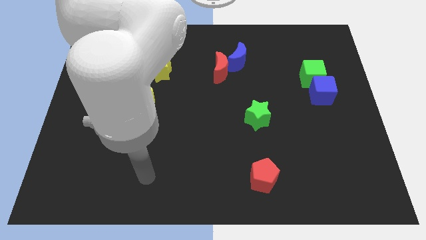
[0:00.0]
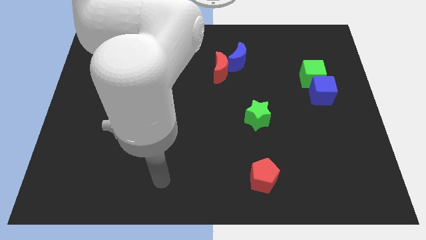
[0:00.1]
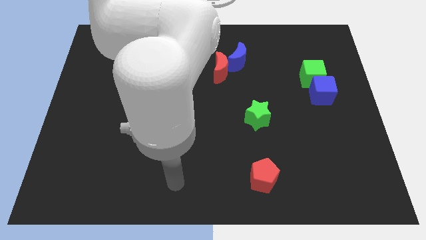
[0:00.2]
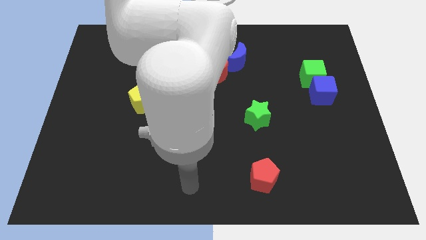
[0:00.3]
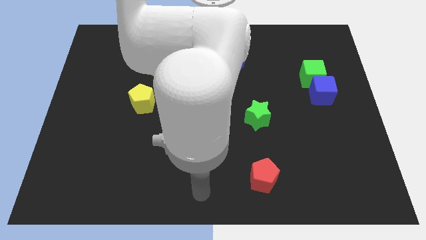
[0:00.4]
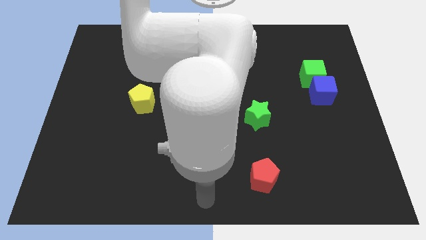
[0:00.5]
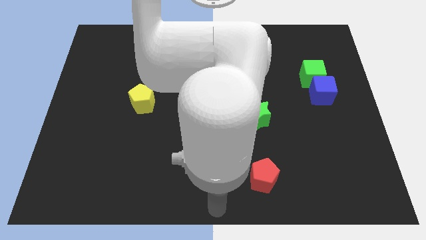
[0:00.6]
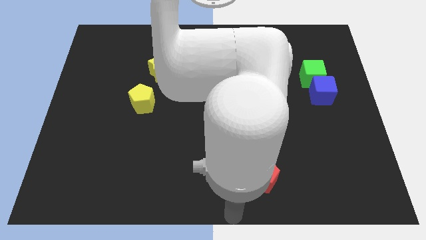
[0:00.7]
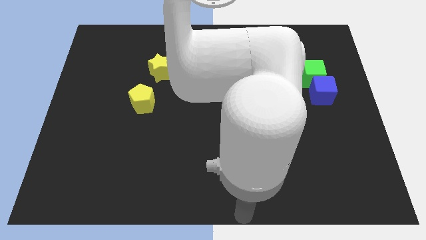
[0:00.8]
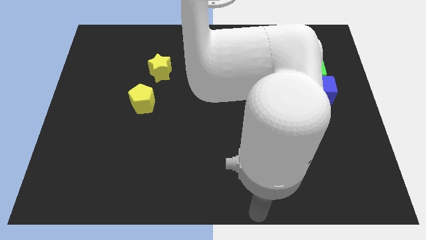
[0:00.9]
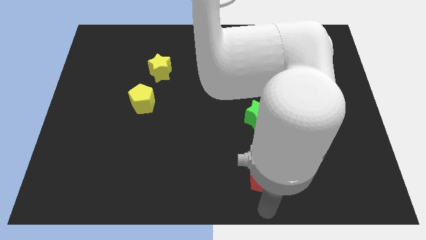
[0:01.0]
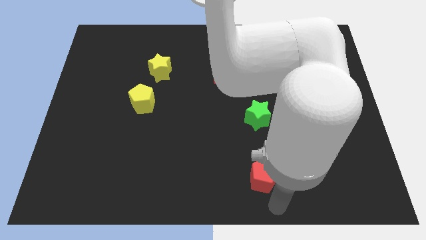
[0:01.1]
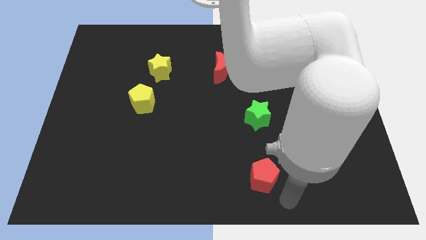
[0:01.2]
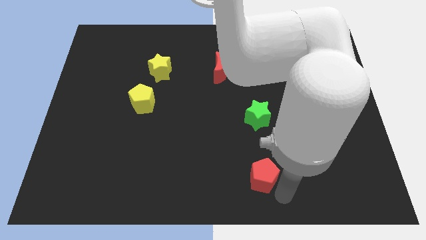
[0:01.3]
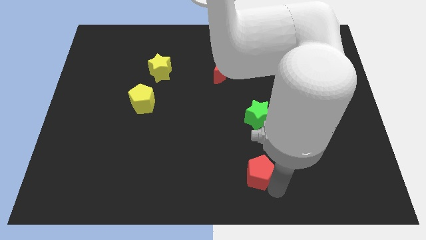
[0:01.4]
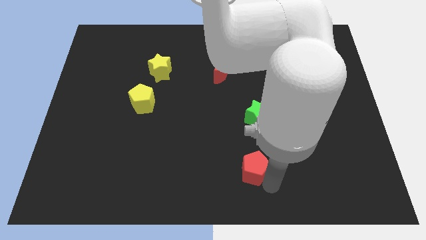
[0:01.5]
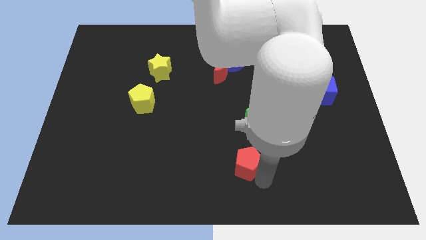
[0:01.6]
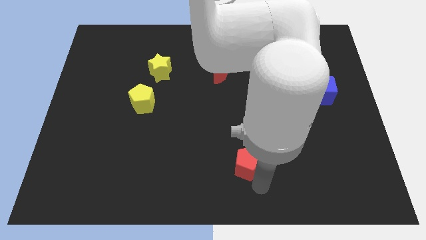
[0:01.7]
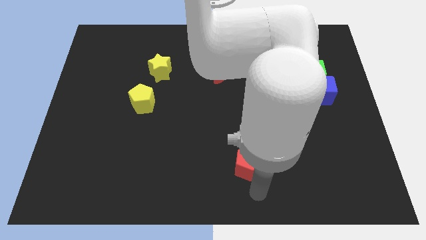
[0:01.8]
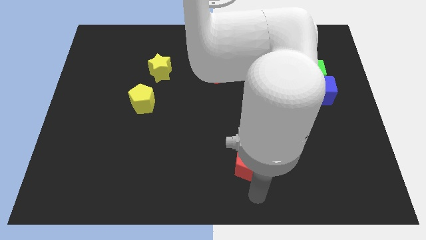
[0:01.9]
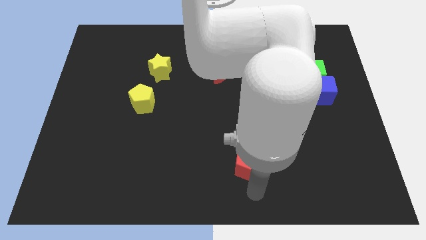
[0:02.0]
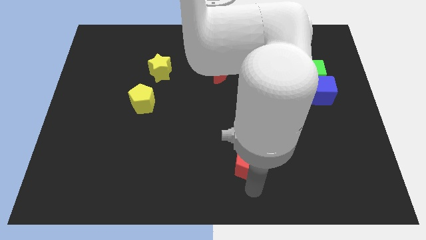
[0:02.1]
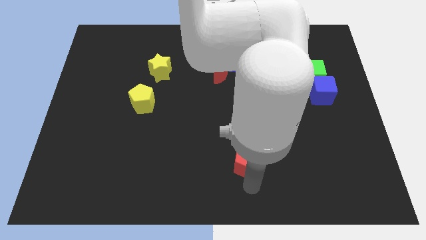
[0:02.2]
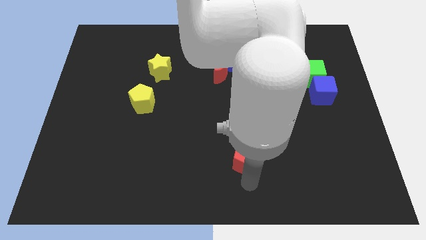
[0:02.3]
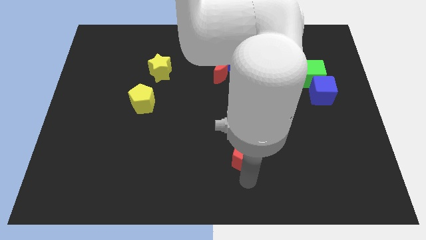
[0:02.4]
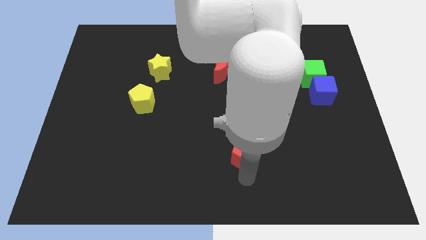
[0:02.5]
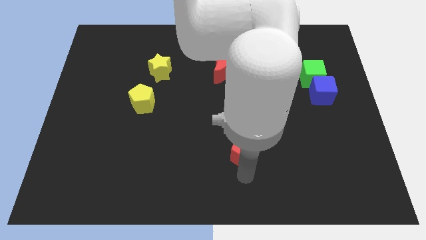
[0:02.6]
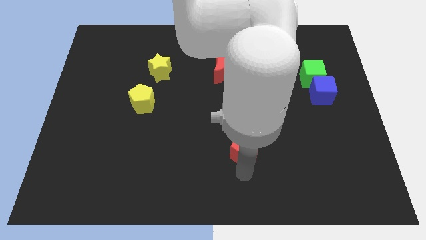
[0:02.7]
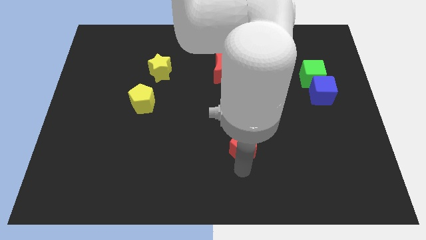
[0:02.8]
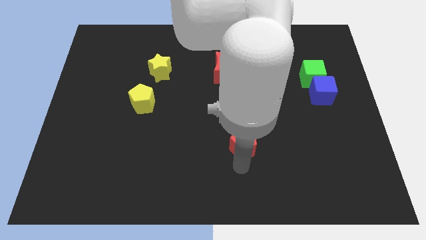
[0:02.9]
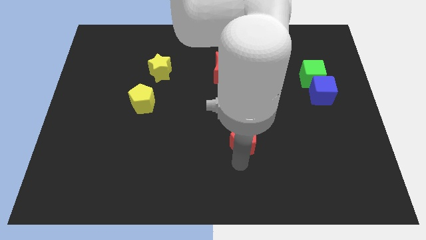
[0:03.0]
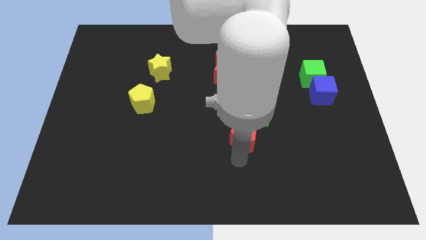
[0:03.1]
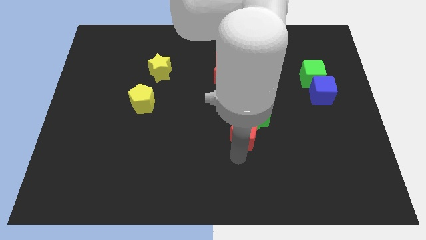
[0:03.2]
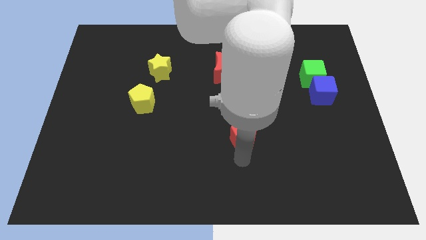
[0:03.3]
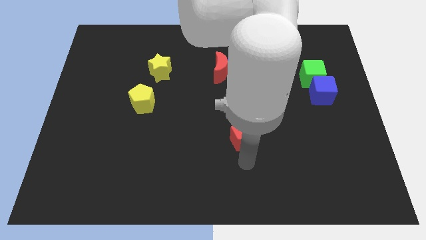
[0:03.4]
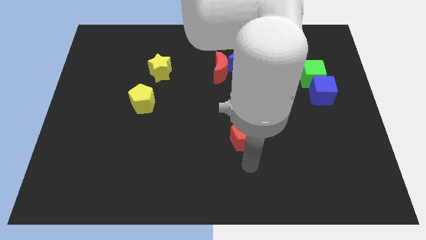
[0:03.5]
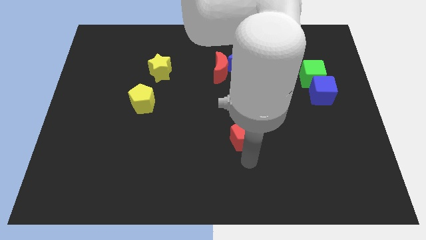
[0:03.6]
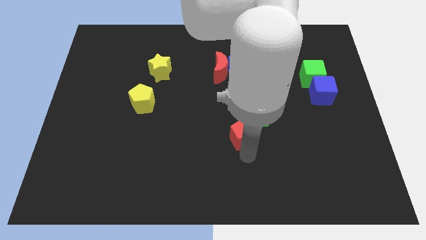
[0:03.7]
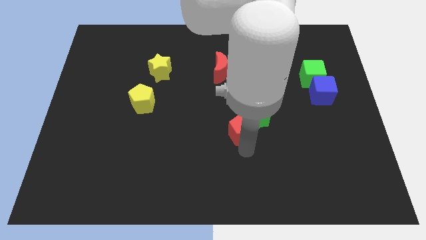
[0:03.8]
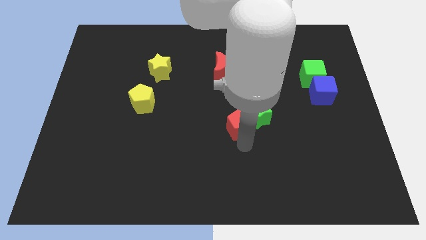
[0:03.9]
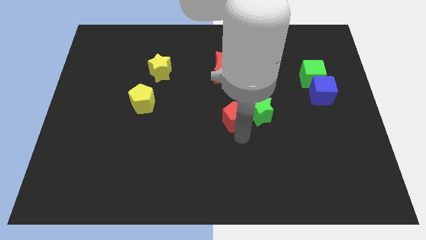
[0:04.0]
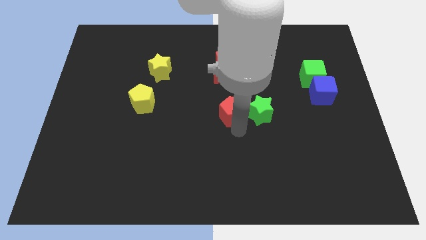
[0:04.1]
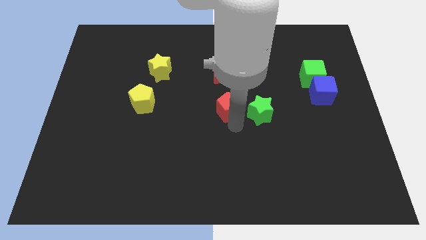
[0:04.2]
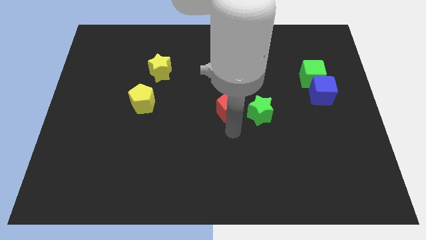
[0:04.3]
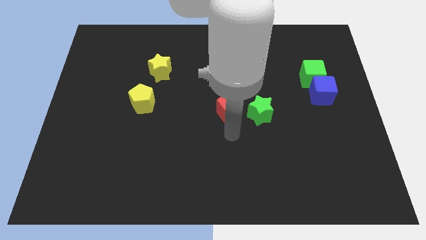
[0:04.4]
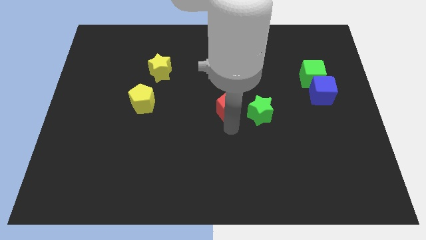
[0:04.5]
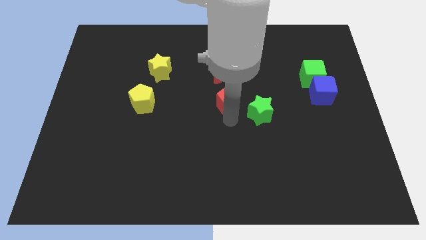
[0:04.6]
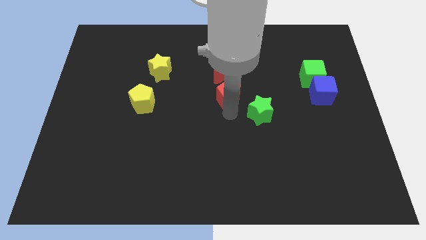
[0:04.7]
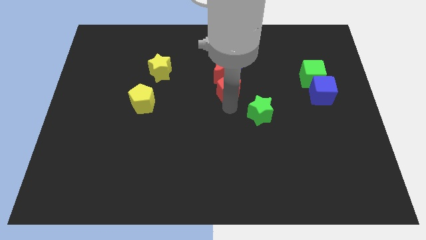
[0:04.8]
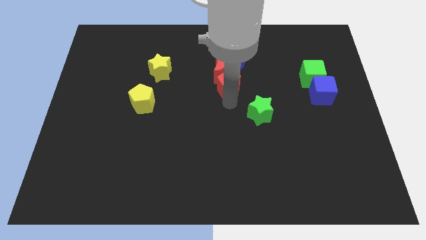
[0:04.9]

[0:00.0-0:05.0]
push the red pentagon towards the red moon

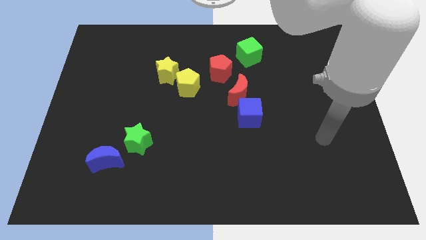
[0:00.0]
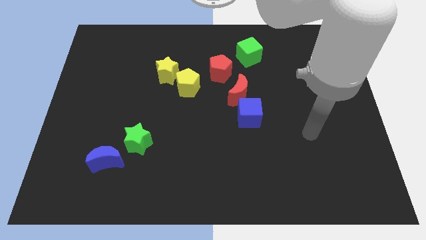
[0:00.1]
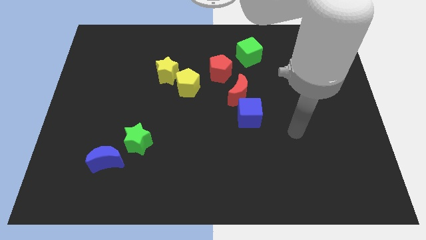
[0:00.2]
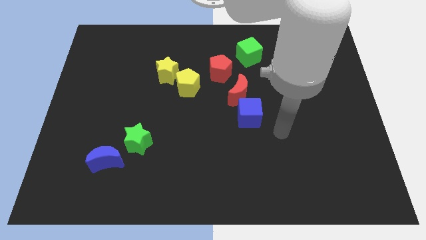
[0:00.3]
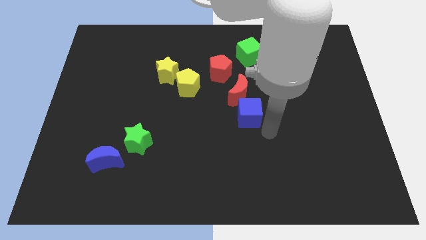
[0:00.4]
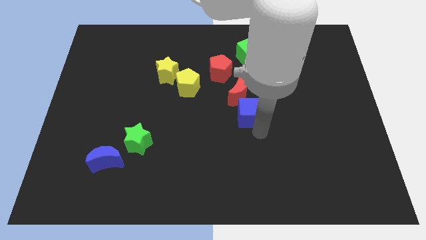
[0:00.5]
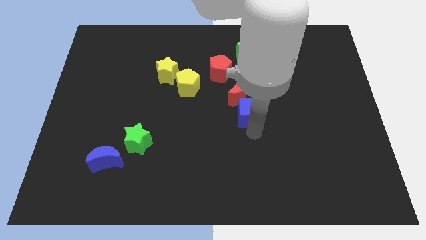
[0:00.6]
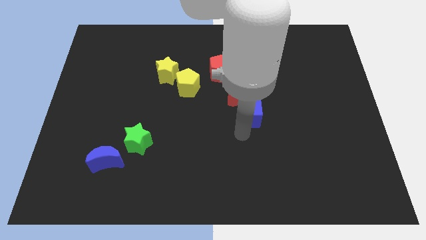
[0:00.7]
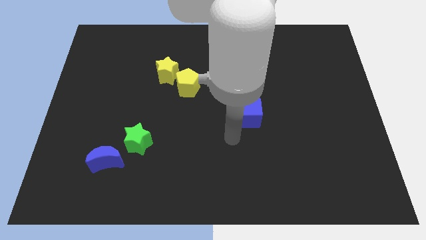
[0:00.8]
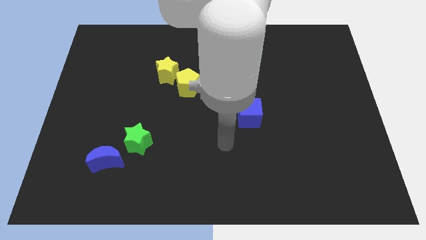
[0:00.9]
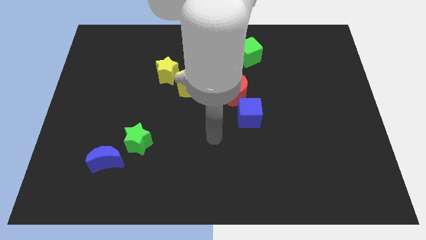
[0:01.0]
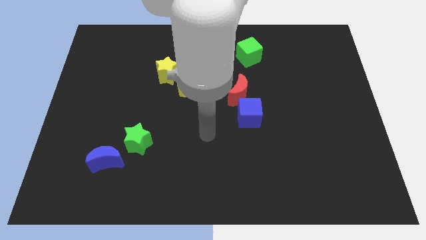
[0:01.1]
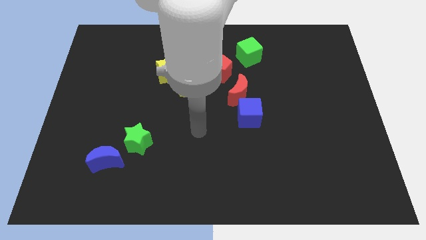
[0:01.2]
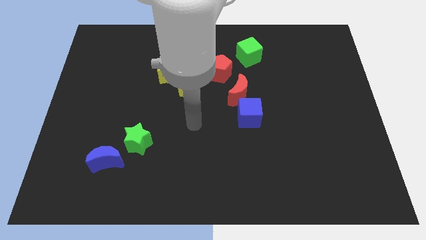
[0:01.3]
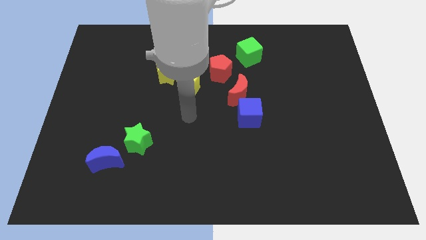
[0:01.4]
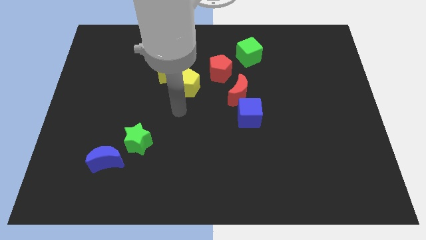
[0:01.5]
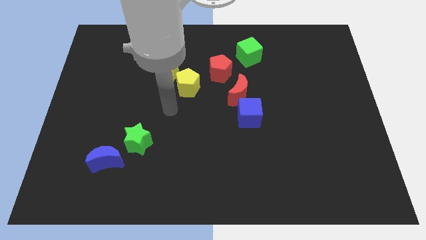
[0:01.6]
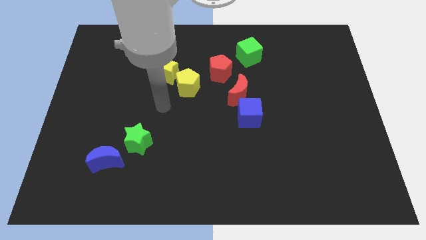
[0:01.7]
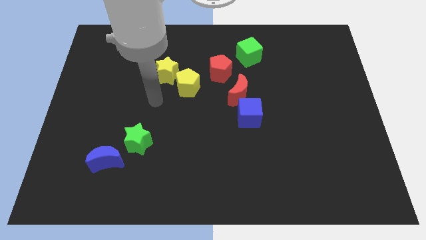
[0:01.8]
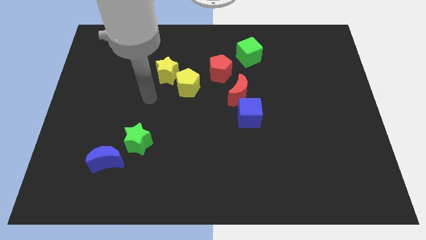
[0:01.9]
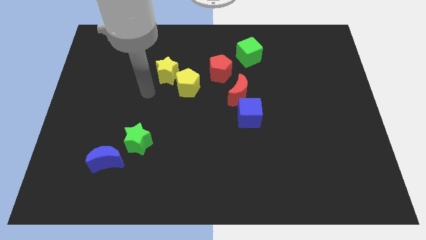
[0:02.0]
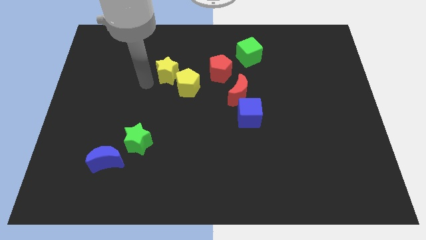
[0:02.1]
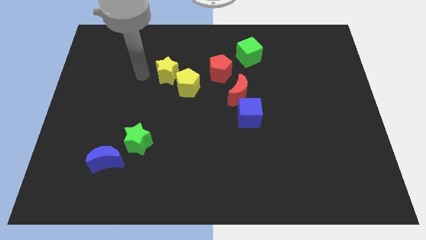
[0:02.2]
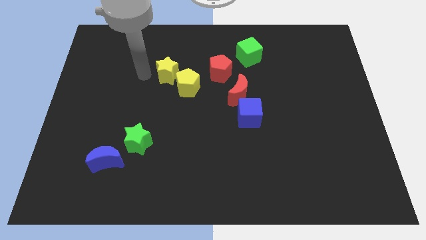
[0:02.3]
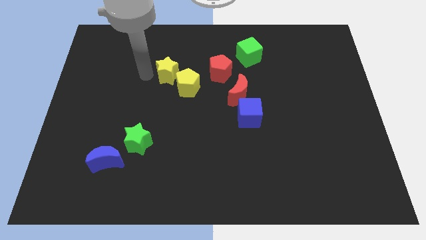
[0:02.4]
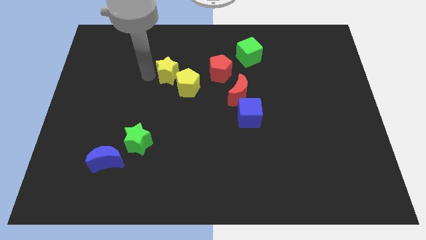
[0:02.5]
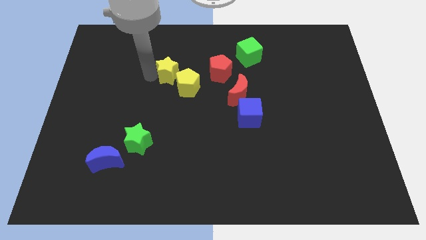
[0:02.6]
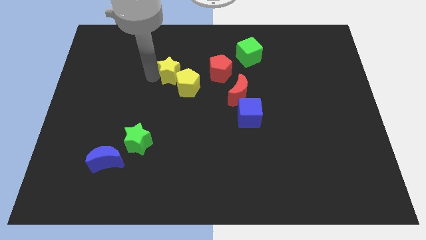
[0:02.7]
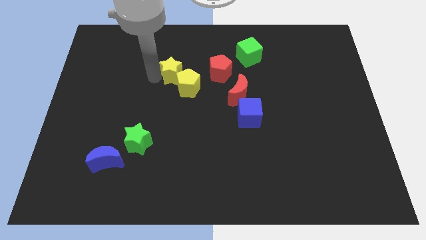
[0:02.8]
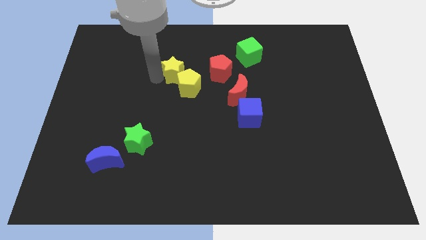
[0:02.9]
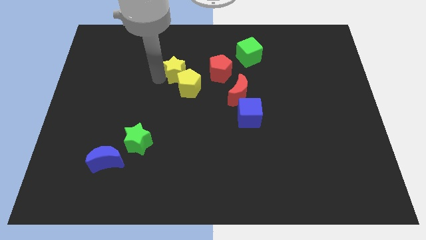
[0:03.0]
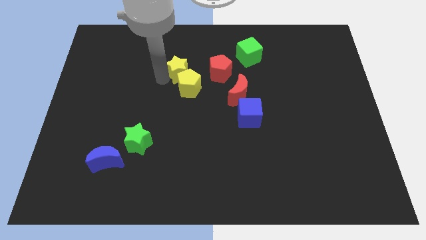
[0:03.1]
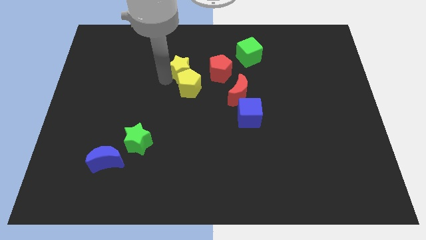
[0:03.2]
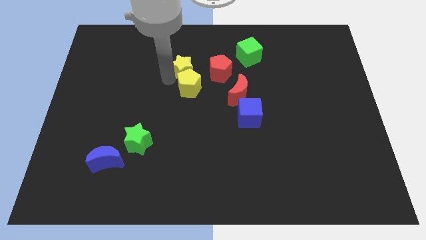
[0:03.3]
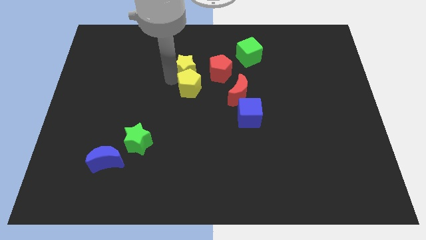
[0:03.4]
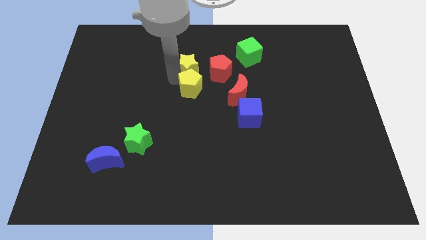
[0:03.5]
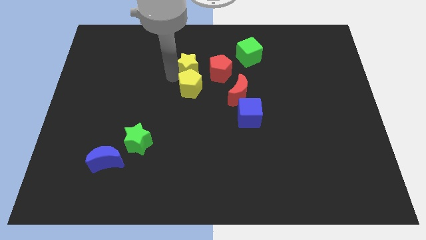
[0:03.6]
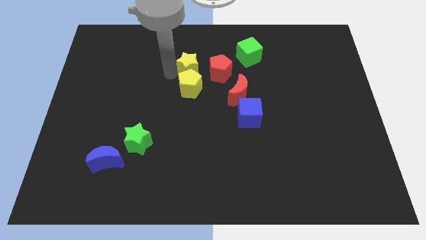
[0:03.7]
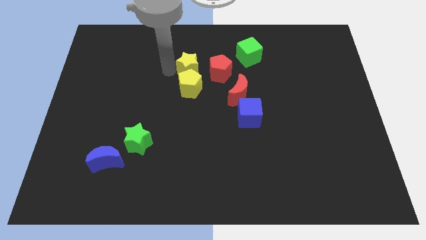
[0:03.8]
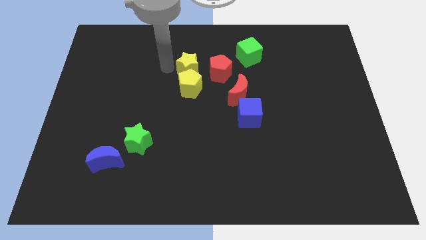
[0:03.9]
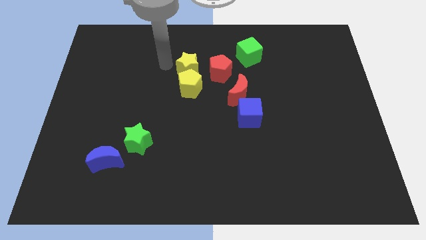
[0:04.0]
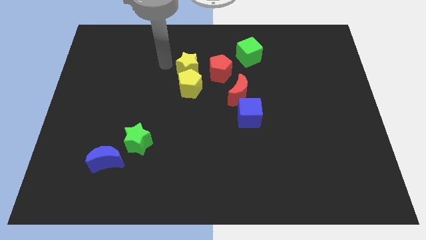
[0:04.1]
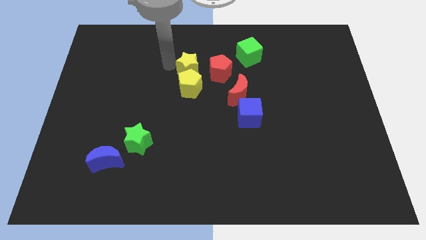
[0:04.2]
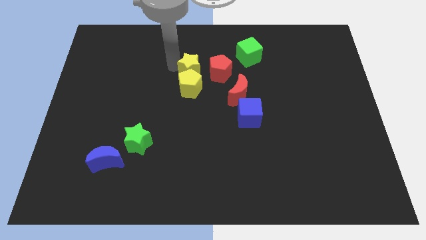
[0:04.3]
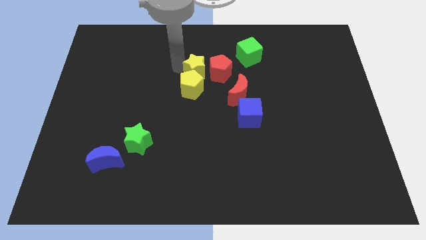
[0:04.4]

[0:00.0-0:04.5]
move the yellow star towards the red pentagon
